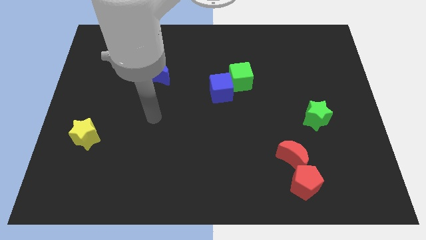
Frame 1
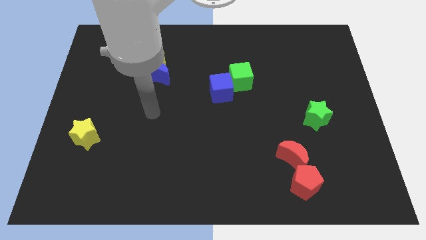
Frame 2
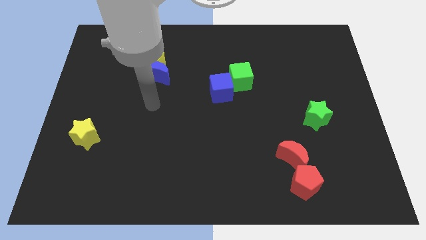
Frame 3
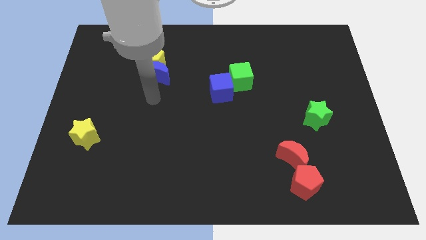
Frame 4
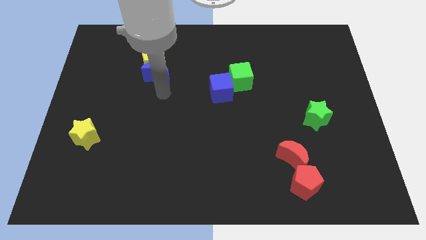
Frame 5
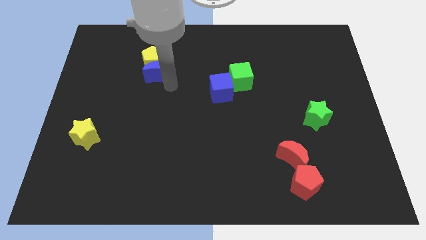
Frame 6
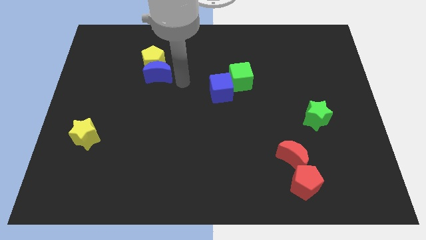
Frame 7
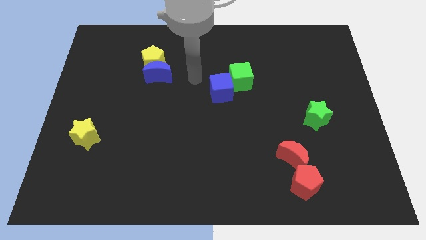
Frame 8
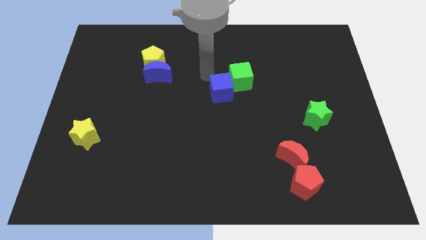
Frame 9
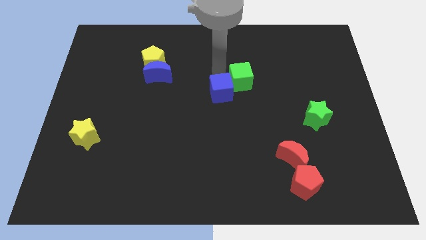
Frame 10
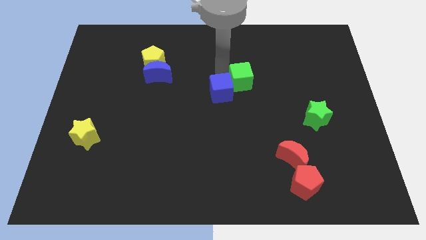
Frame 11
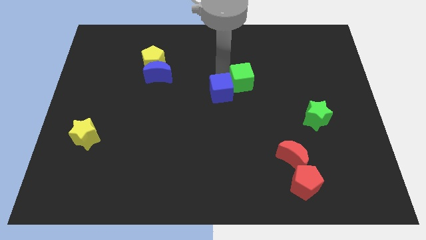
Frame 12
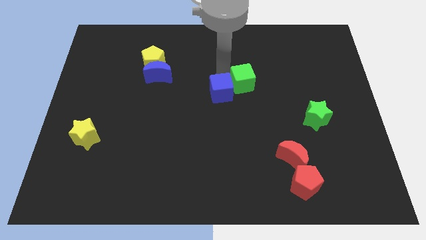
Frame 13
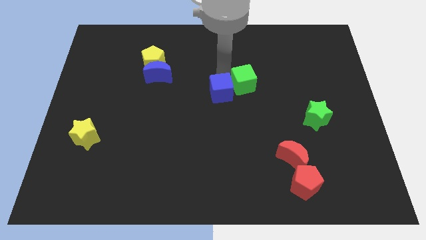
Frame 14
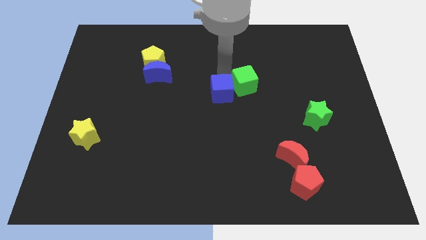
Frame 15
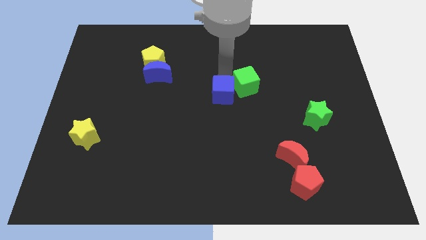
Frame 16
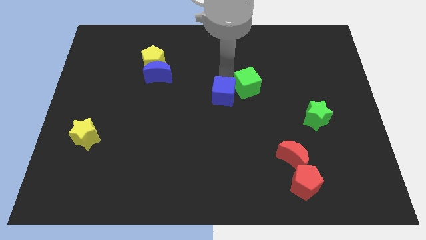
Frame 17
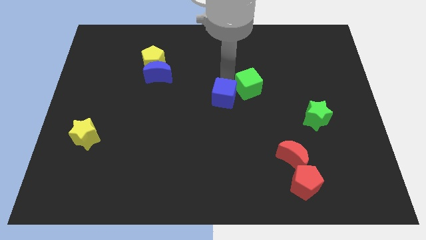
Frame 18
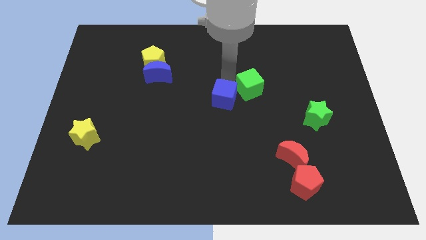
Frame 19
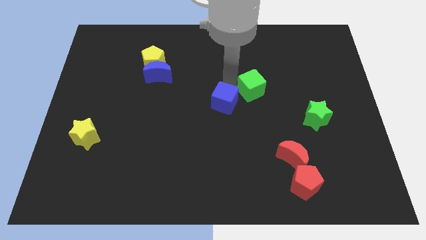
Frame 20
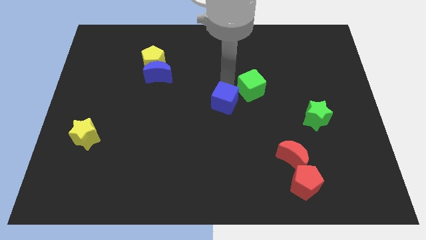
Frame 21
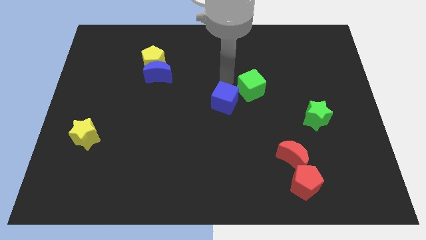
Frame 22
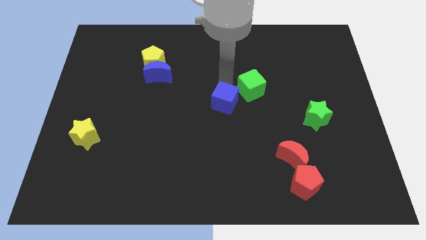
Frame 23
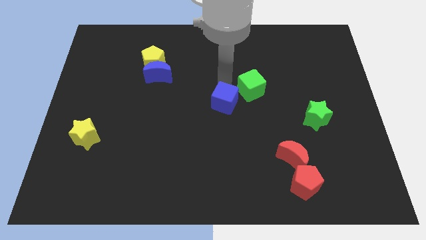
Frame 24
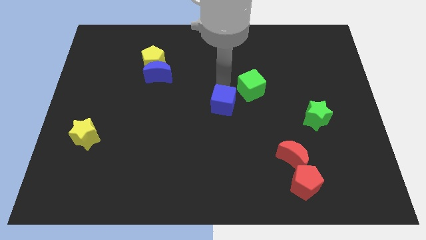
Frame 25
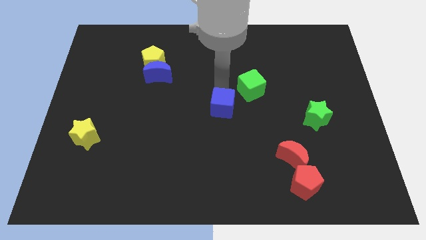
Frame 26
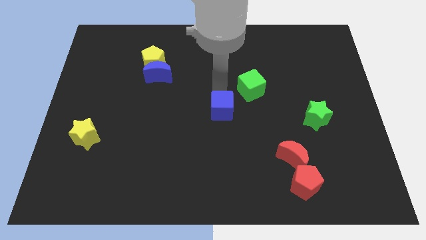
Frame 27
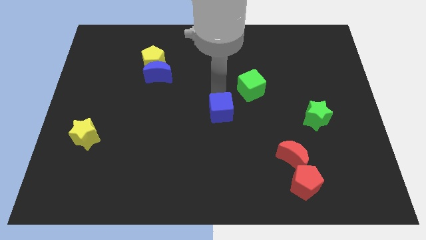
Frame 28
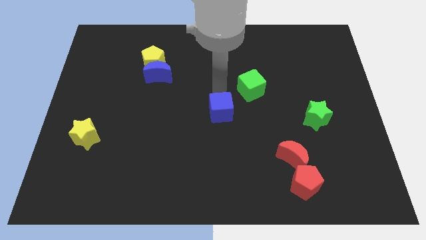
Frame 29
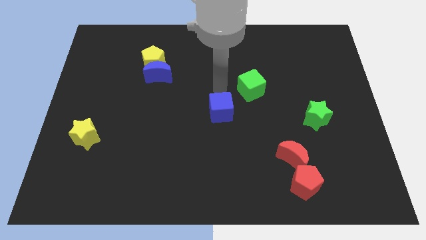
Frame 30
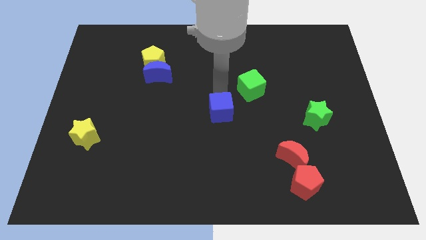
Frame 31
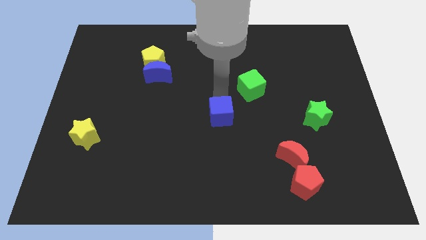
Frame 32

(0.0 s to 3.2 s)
move the blue cube downwards a little

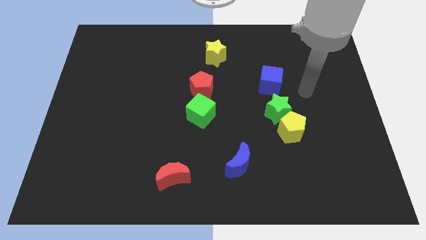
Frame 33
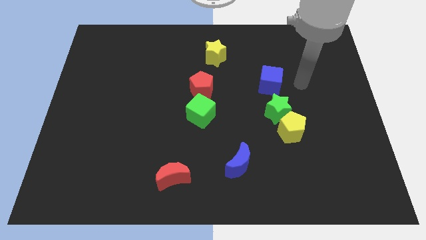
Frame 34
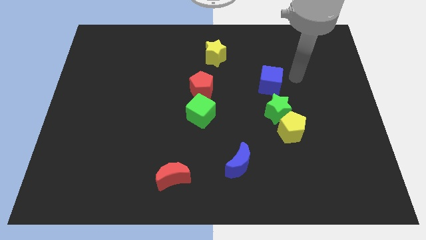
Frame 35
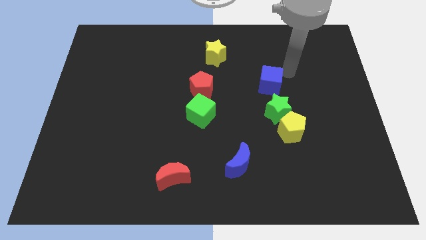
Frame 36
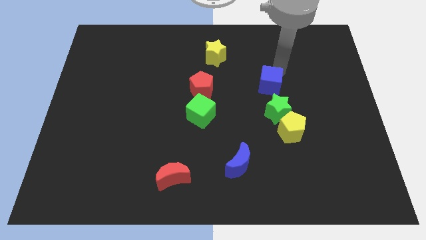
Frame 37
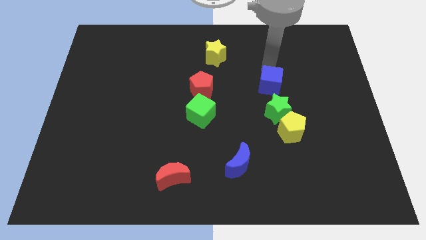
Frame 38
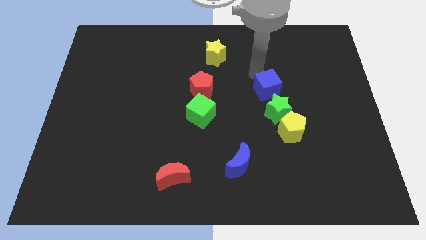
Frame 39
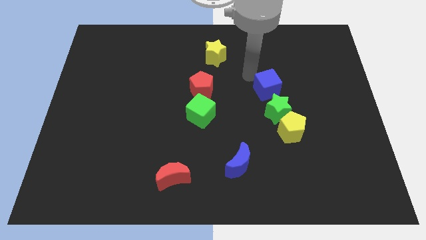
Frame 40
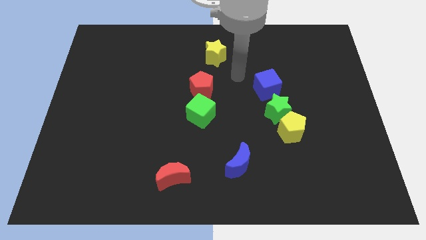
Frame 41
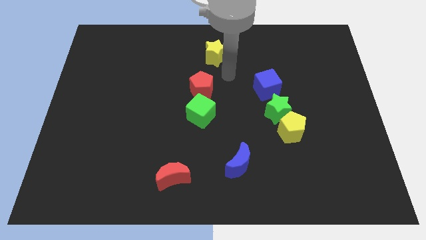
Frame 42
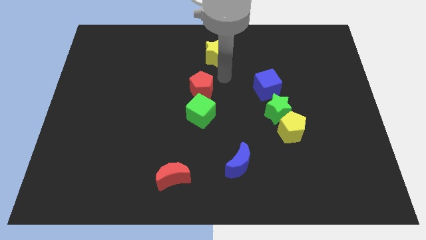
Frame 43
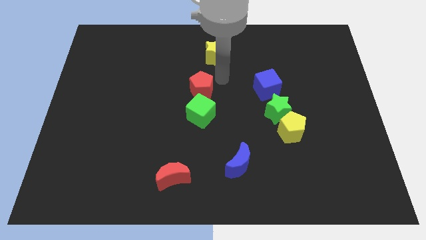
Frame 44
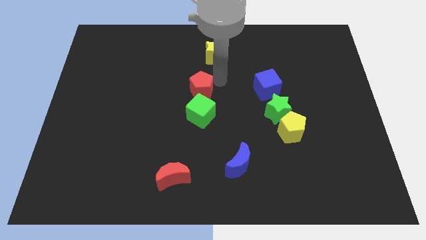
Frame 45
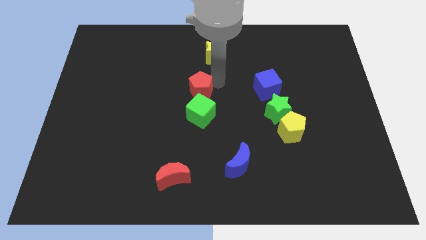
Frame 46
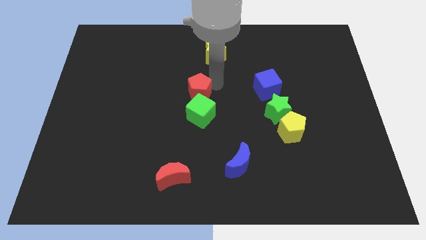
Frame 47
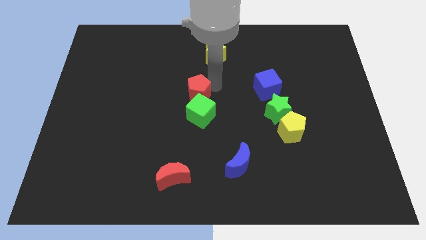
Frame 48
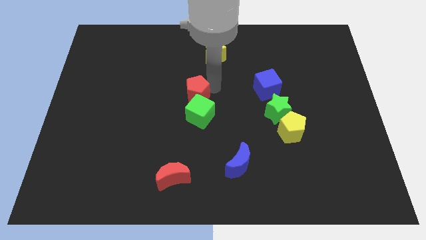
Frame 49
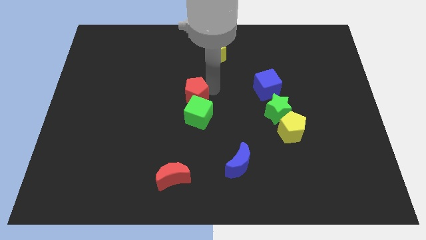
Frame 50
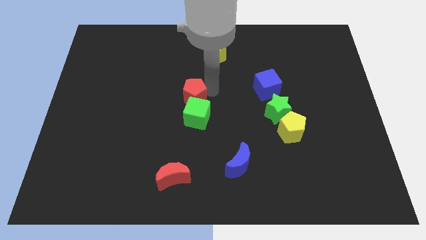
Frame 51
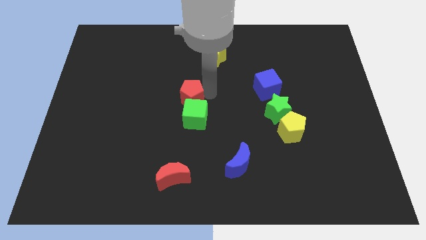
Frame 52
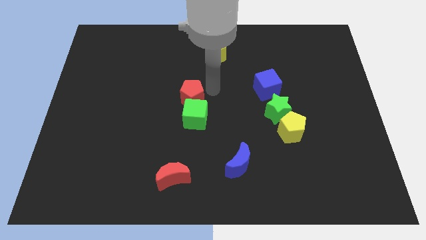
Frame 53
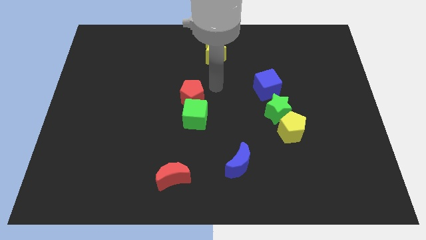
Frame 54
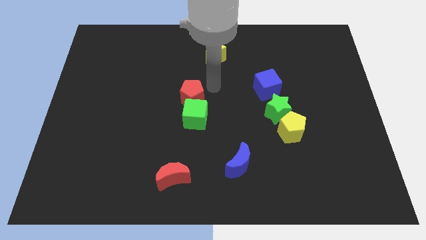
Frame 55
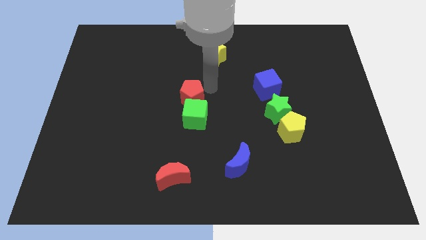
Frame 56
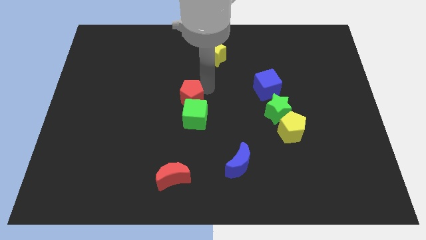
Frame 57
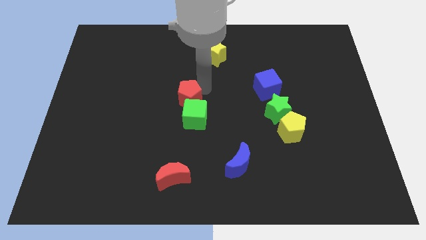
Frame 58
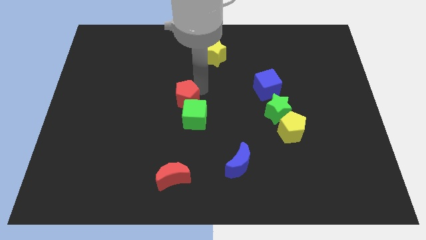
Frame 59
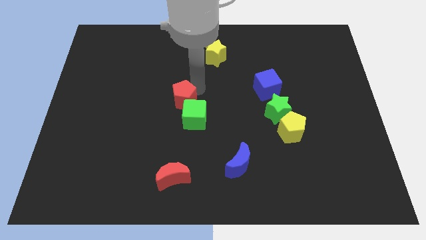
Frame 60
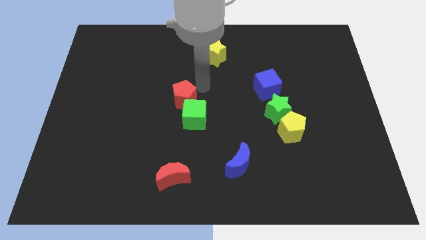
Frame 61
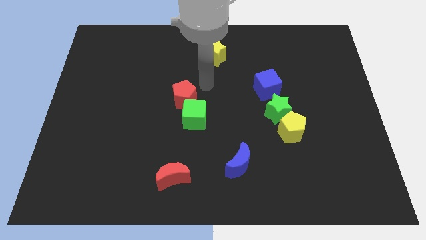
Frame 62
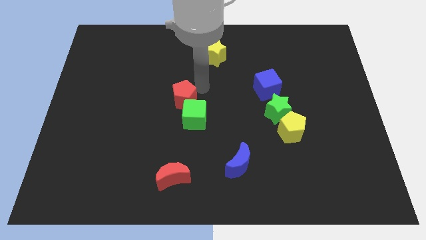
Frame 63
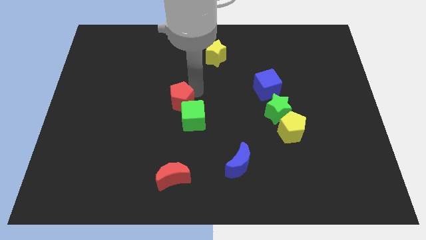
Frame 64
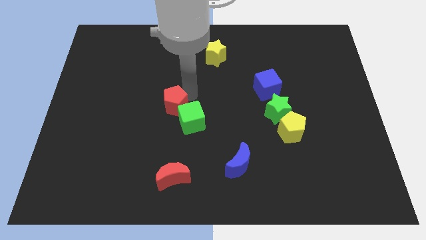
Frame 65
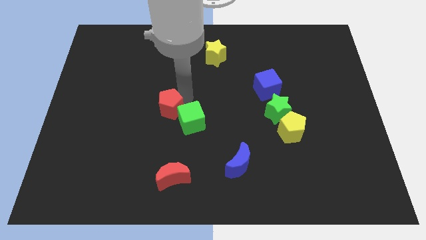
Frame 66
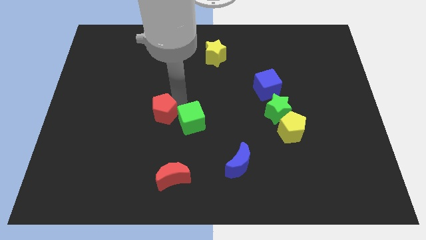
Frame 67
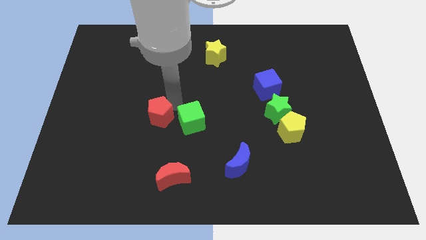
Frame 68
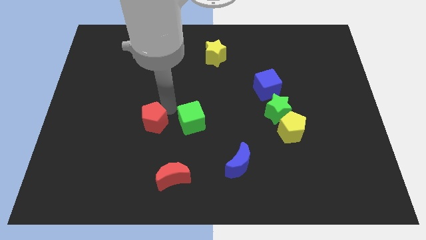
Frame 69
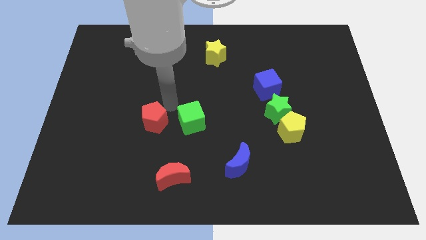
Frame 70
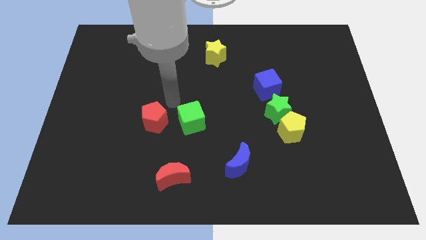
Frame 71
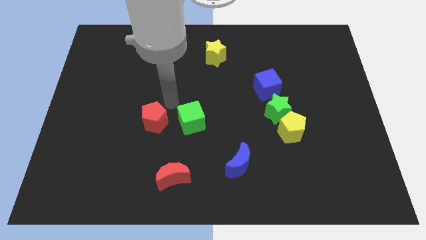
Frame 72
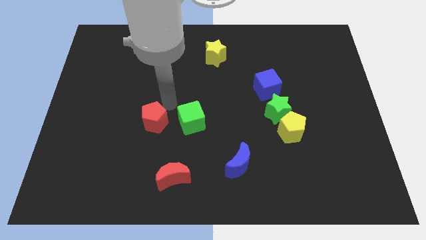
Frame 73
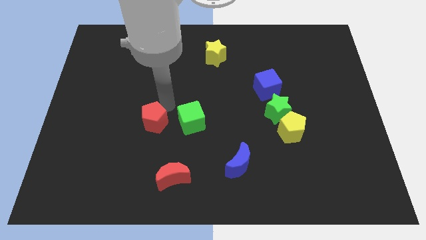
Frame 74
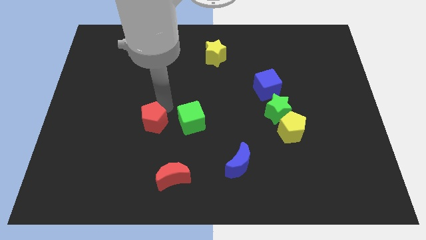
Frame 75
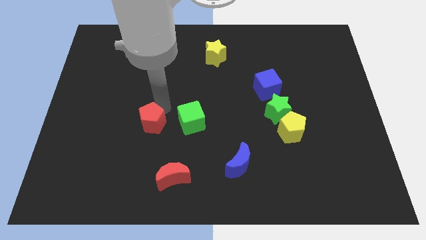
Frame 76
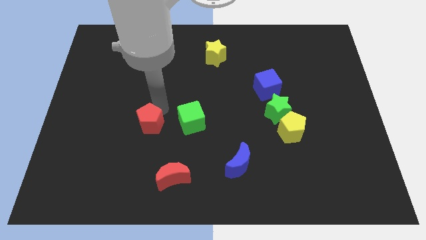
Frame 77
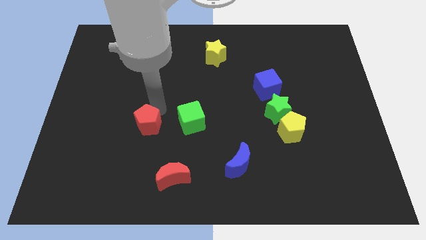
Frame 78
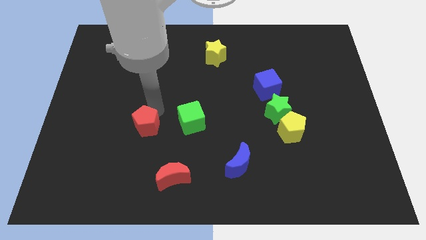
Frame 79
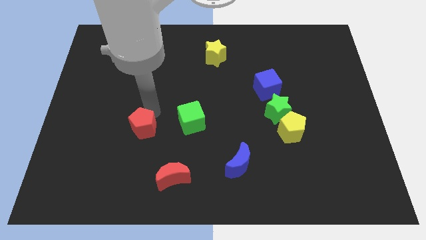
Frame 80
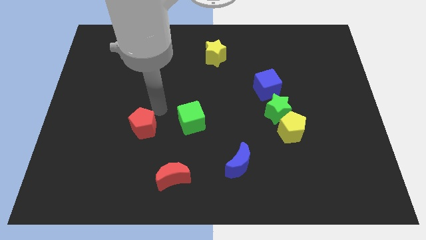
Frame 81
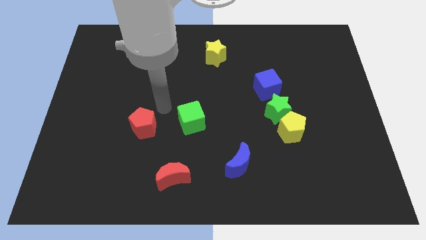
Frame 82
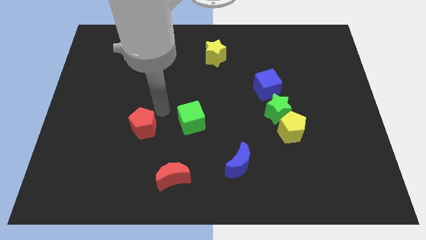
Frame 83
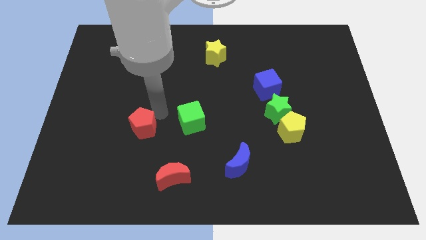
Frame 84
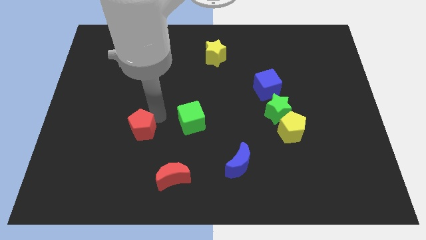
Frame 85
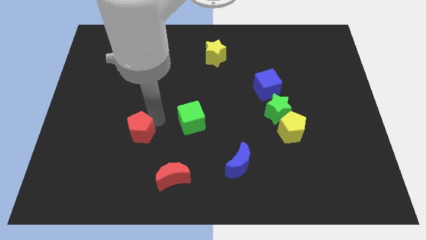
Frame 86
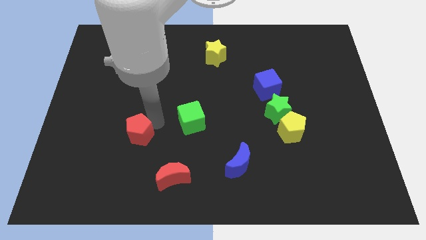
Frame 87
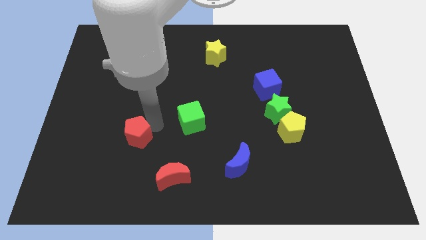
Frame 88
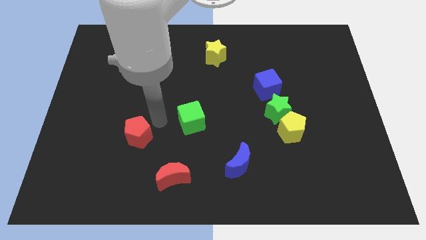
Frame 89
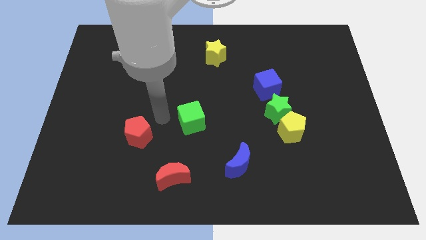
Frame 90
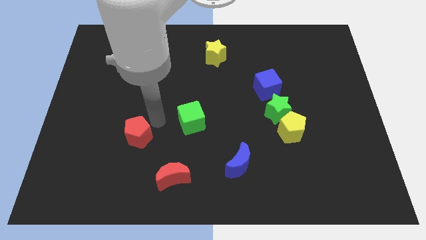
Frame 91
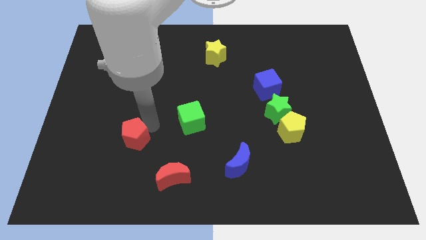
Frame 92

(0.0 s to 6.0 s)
push the red pentagon downwards and to the left diagonally
